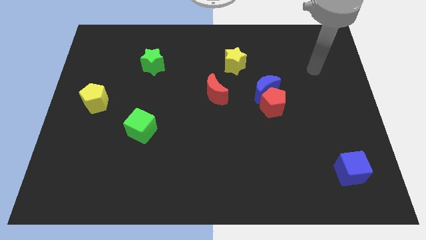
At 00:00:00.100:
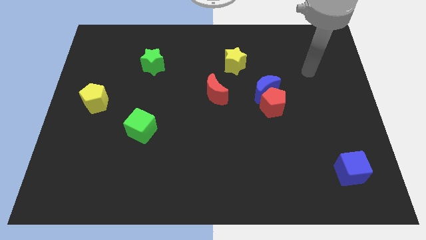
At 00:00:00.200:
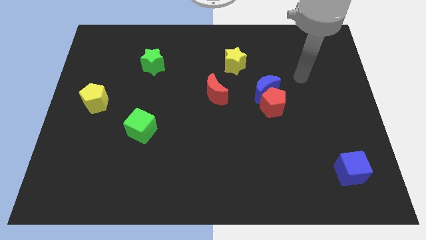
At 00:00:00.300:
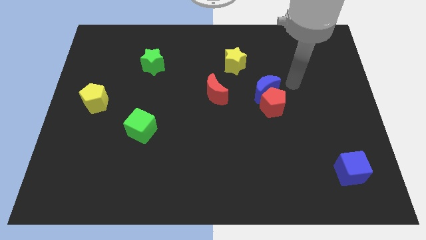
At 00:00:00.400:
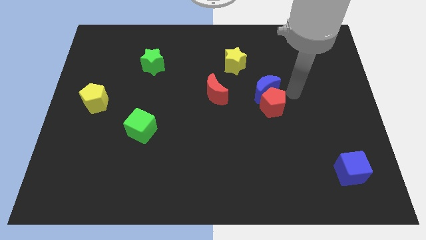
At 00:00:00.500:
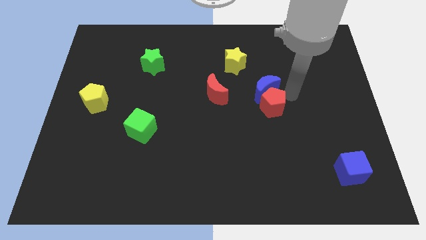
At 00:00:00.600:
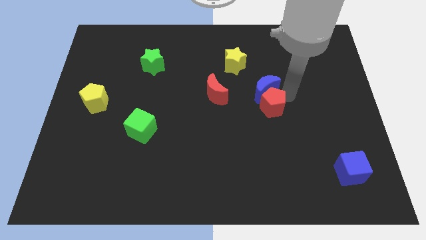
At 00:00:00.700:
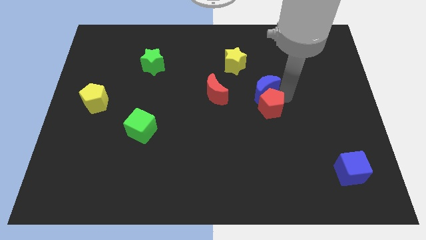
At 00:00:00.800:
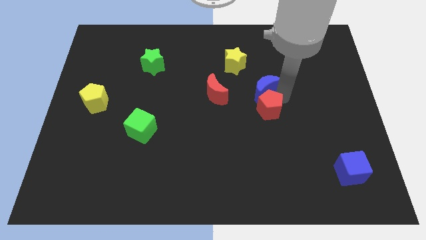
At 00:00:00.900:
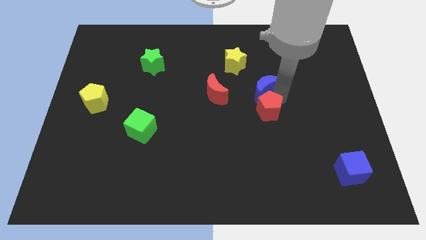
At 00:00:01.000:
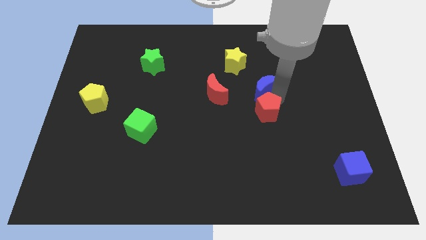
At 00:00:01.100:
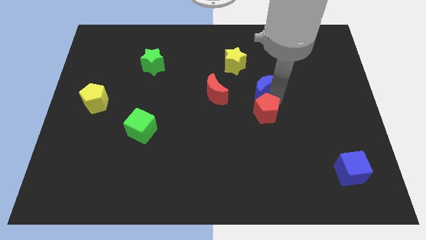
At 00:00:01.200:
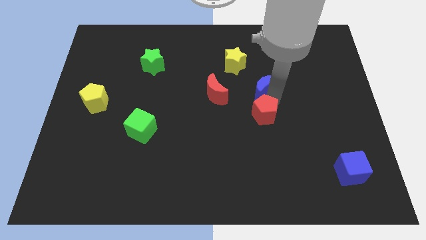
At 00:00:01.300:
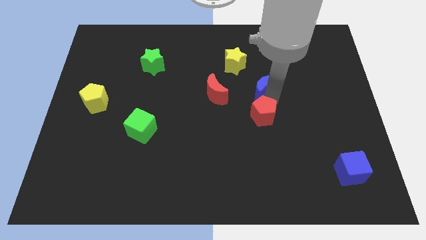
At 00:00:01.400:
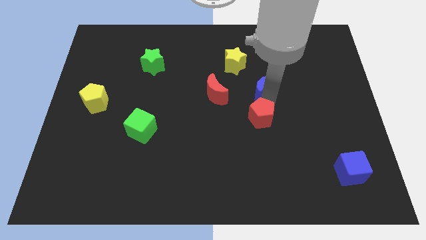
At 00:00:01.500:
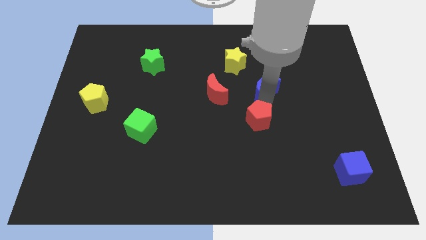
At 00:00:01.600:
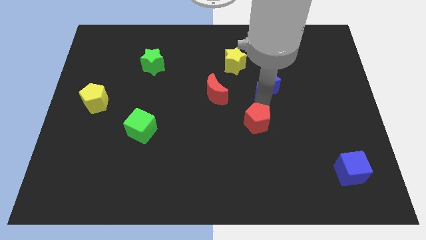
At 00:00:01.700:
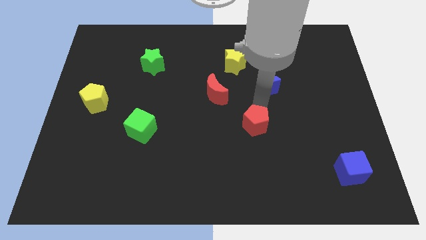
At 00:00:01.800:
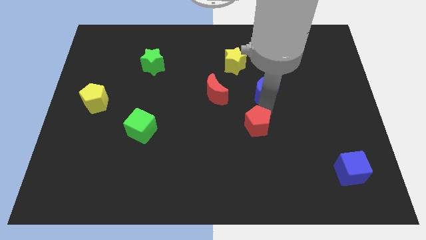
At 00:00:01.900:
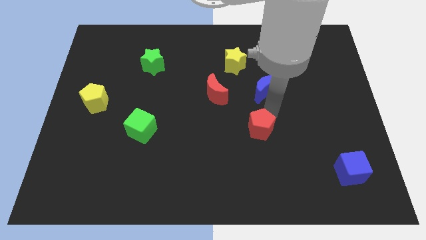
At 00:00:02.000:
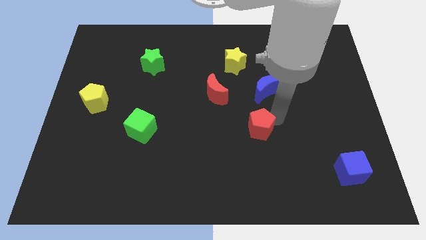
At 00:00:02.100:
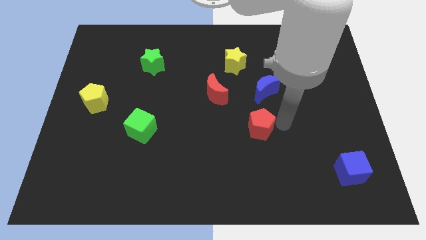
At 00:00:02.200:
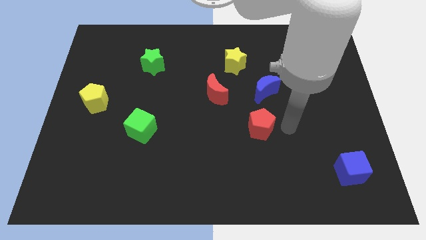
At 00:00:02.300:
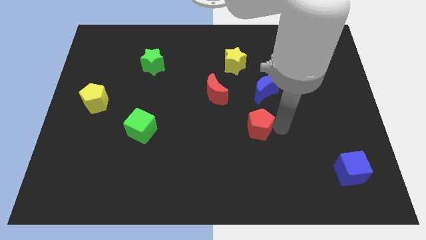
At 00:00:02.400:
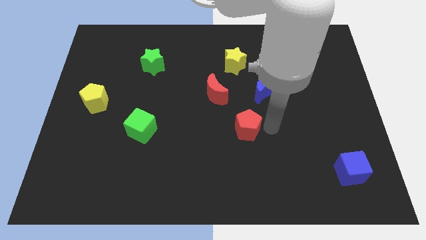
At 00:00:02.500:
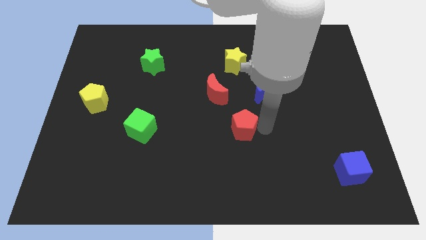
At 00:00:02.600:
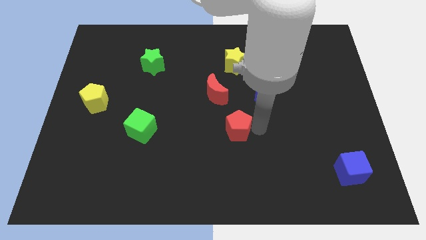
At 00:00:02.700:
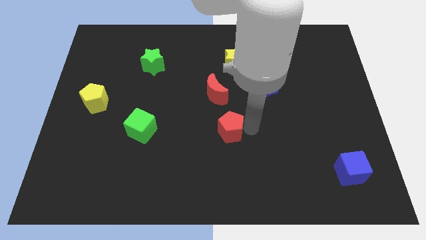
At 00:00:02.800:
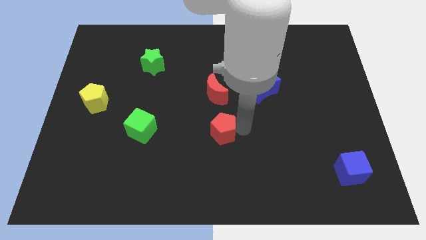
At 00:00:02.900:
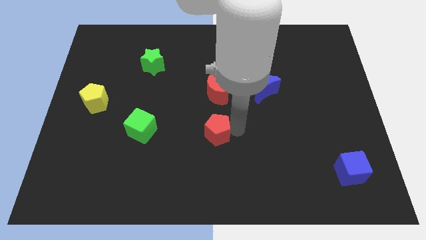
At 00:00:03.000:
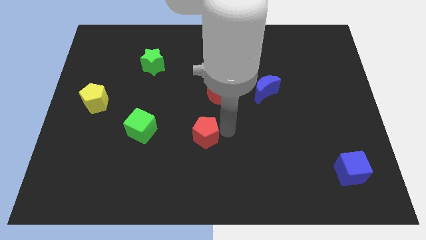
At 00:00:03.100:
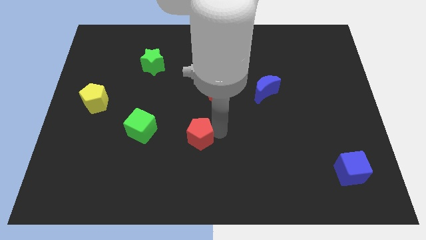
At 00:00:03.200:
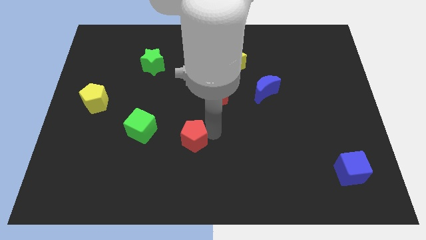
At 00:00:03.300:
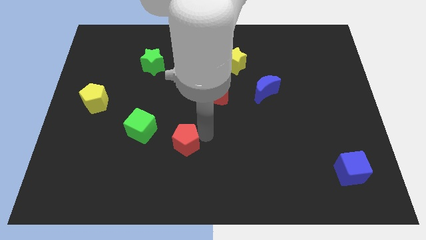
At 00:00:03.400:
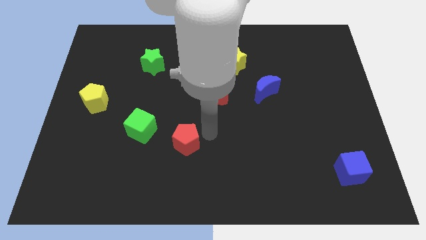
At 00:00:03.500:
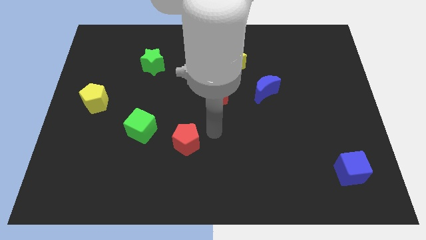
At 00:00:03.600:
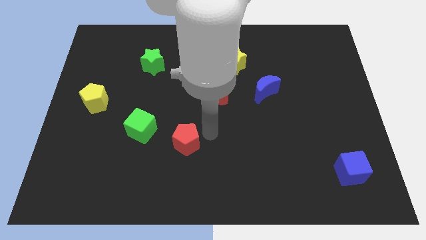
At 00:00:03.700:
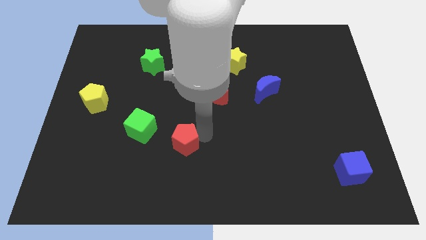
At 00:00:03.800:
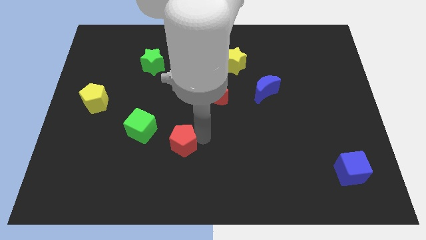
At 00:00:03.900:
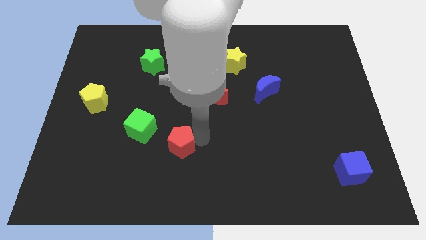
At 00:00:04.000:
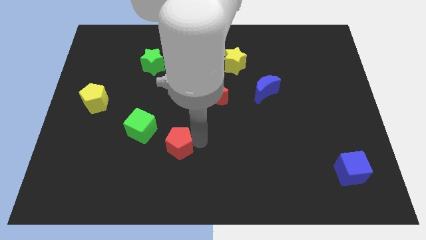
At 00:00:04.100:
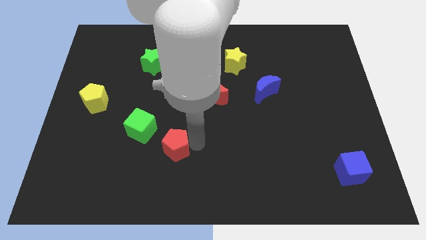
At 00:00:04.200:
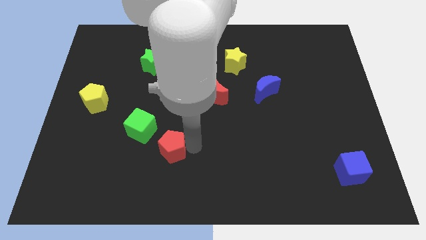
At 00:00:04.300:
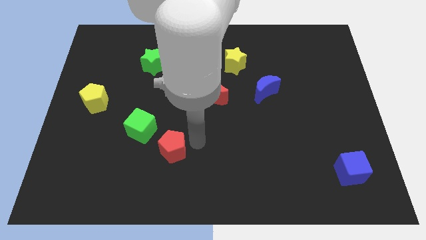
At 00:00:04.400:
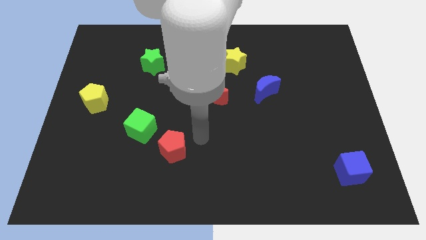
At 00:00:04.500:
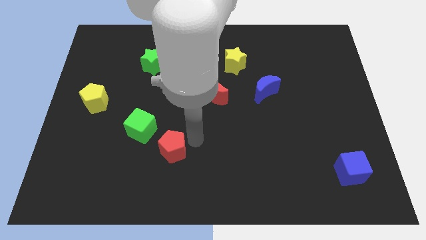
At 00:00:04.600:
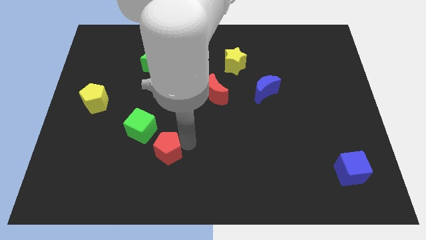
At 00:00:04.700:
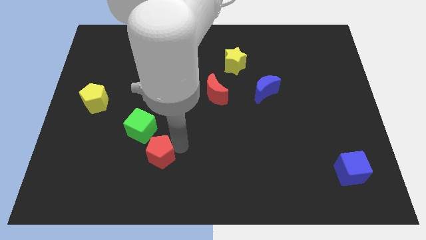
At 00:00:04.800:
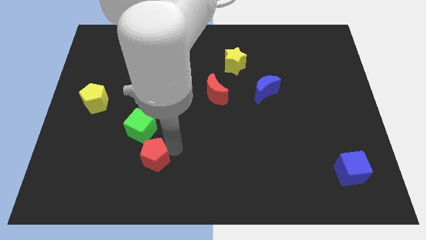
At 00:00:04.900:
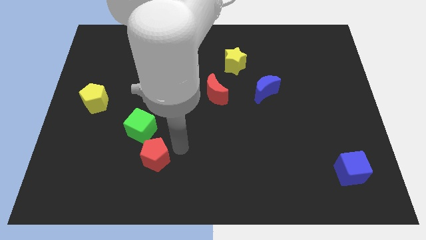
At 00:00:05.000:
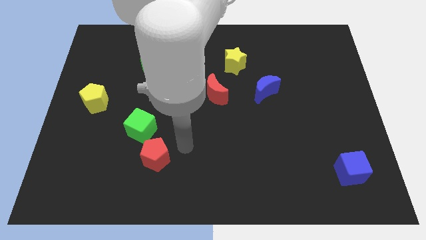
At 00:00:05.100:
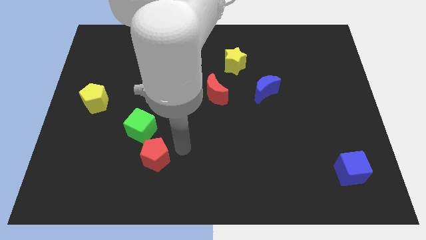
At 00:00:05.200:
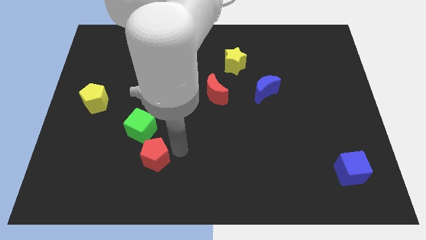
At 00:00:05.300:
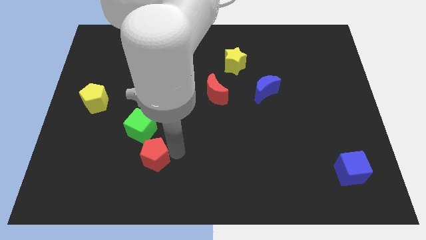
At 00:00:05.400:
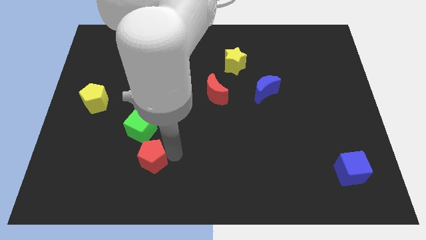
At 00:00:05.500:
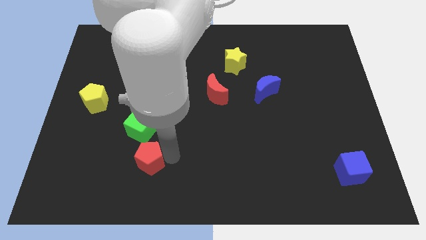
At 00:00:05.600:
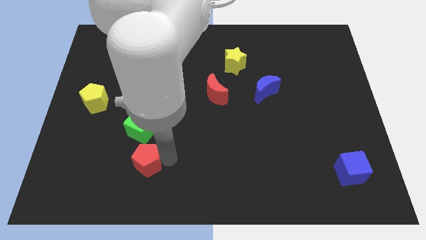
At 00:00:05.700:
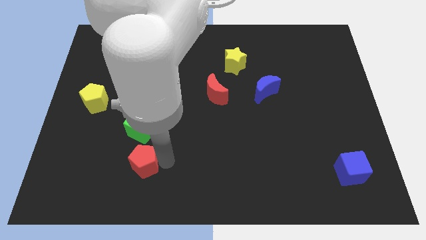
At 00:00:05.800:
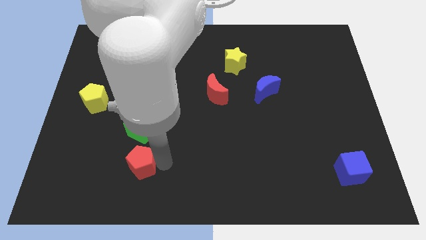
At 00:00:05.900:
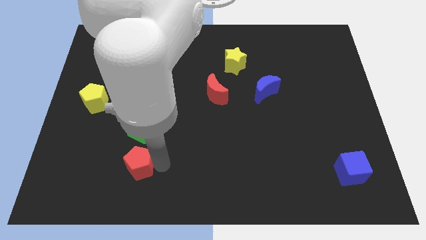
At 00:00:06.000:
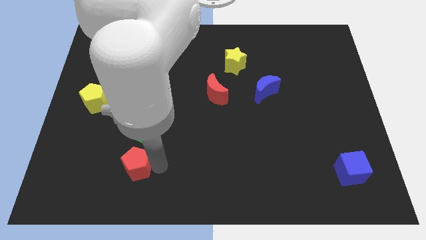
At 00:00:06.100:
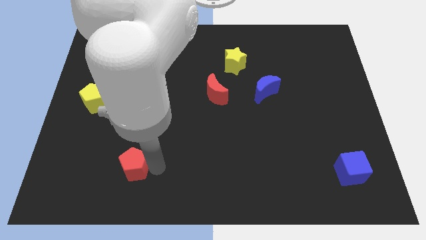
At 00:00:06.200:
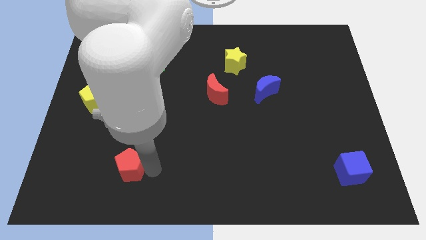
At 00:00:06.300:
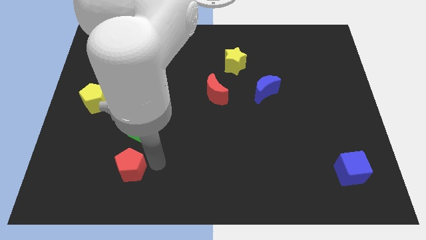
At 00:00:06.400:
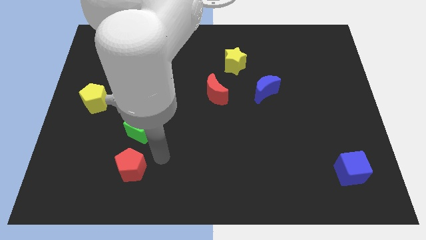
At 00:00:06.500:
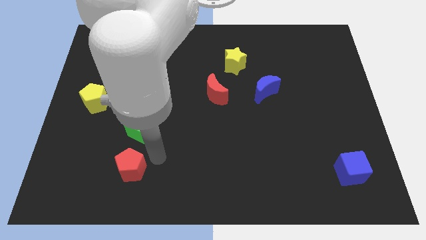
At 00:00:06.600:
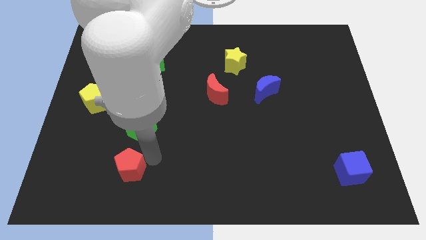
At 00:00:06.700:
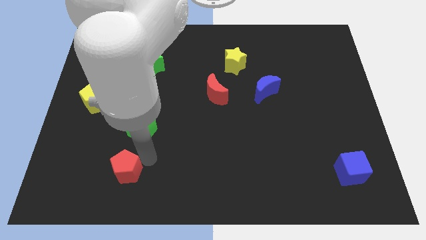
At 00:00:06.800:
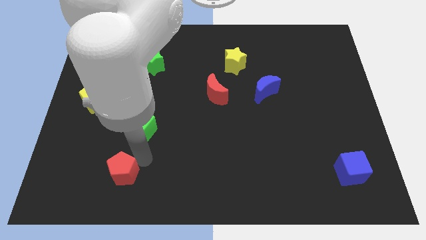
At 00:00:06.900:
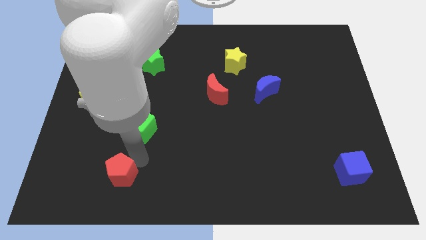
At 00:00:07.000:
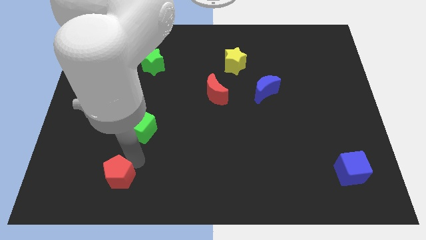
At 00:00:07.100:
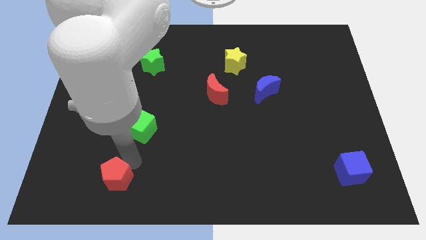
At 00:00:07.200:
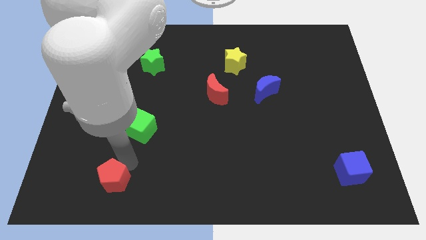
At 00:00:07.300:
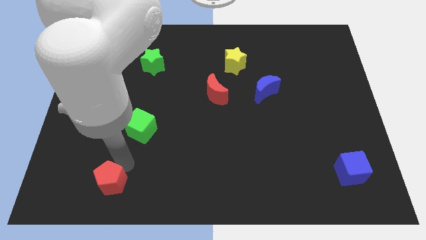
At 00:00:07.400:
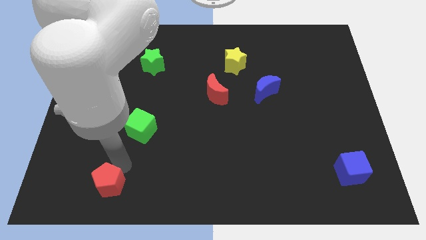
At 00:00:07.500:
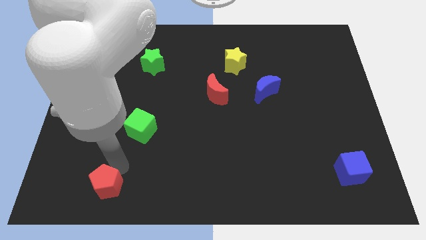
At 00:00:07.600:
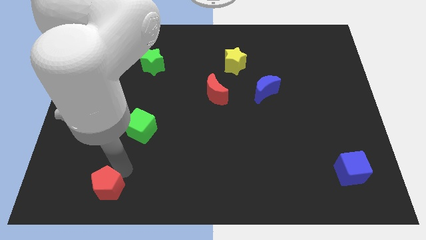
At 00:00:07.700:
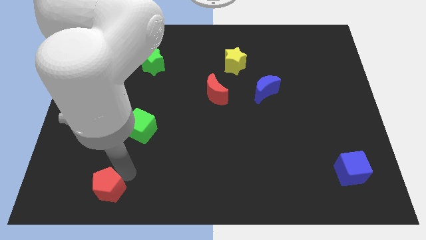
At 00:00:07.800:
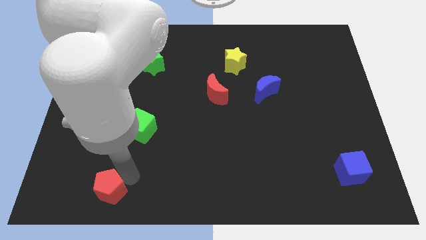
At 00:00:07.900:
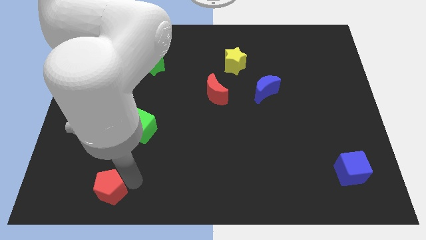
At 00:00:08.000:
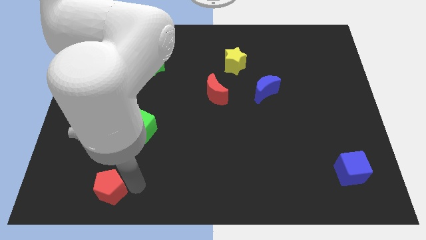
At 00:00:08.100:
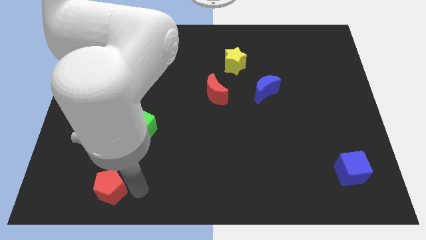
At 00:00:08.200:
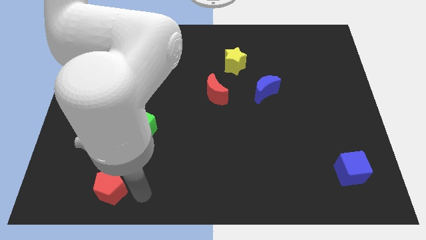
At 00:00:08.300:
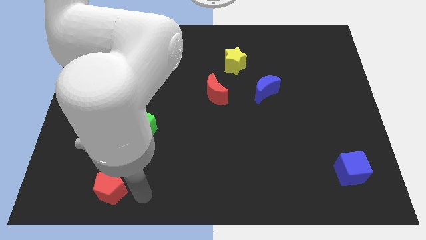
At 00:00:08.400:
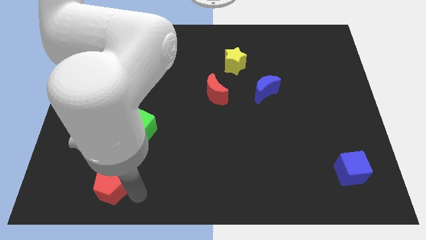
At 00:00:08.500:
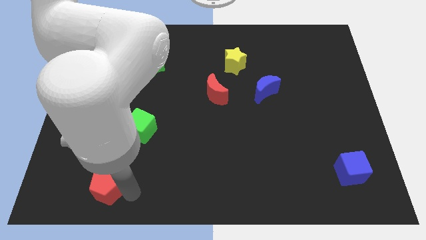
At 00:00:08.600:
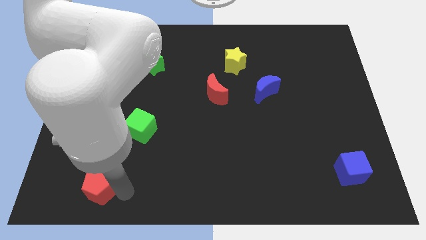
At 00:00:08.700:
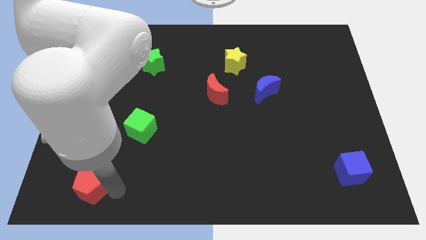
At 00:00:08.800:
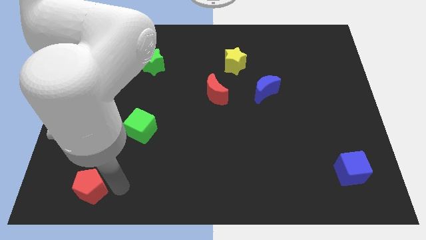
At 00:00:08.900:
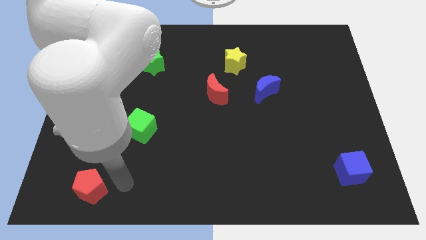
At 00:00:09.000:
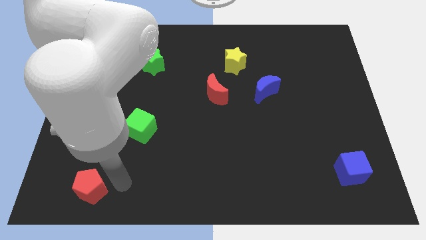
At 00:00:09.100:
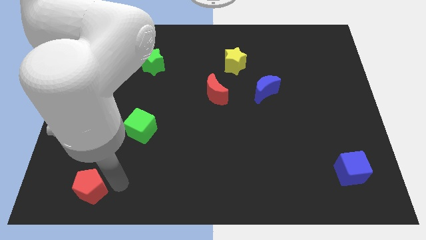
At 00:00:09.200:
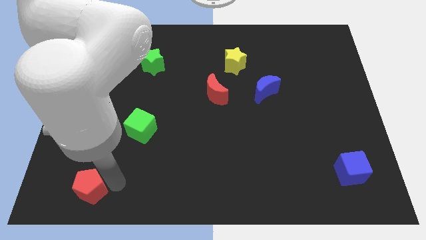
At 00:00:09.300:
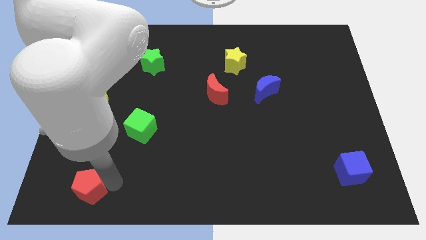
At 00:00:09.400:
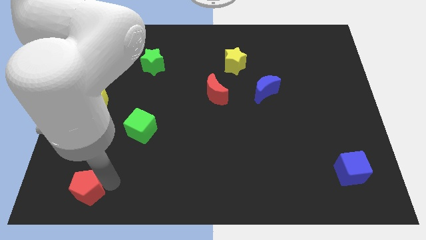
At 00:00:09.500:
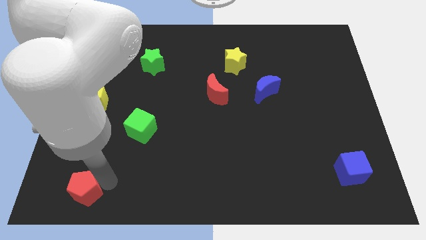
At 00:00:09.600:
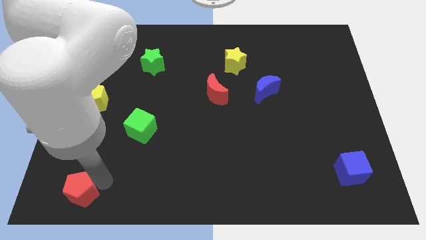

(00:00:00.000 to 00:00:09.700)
slide the red pentagon to the lower left corner
